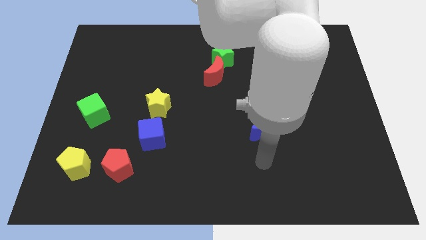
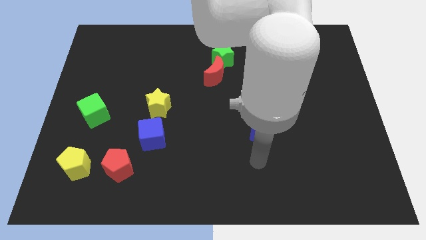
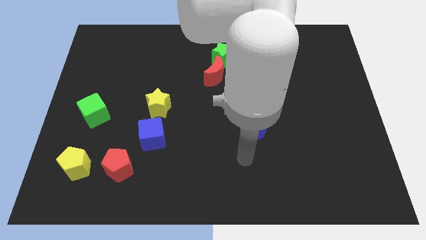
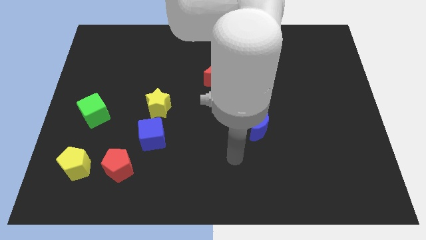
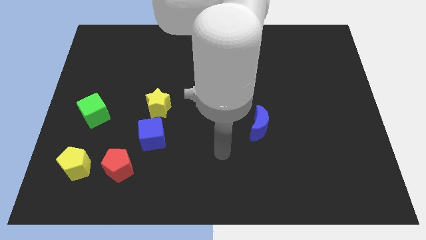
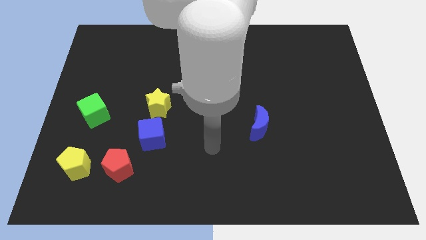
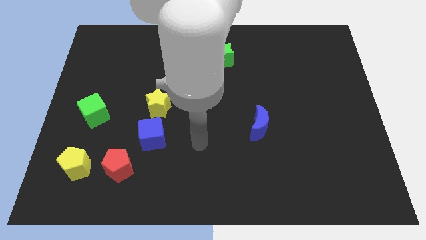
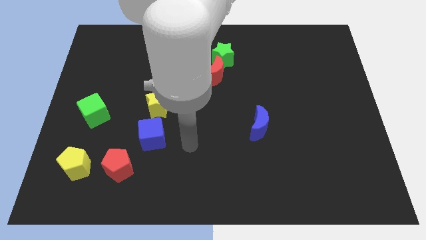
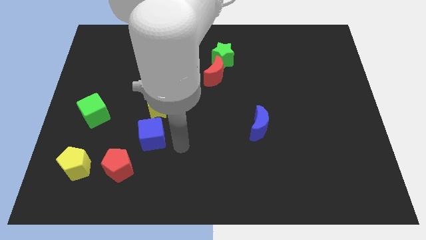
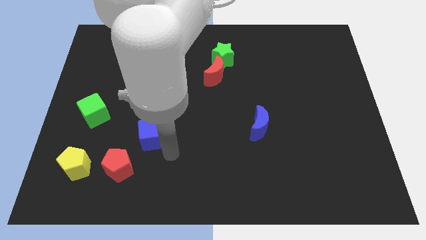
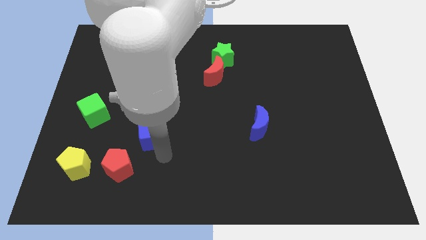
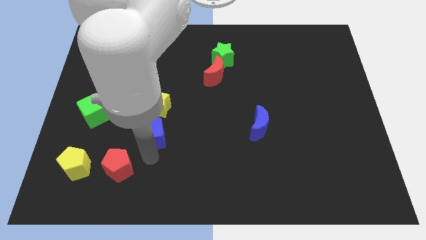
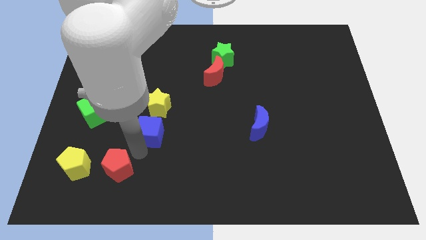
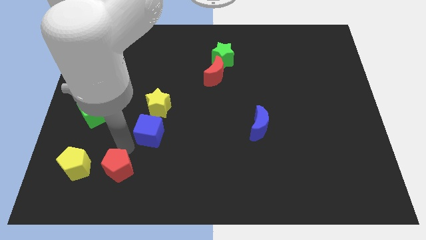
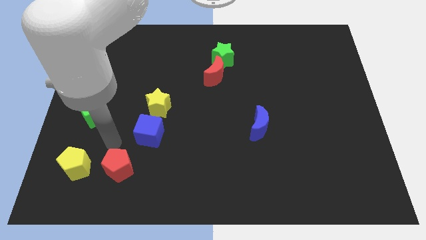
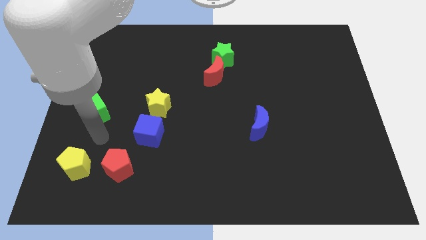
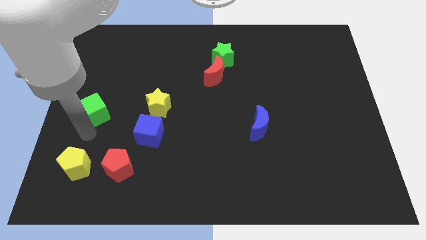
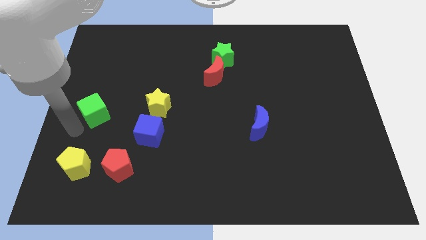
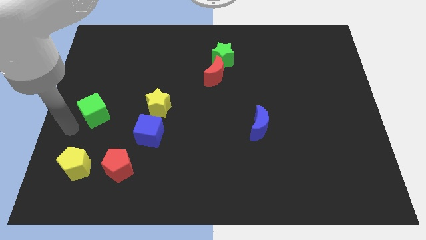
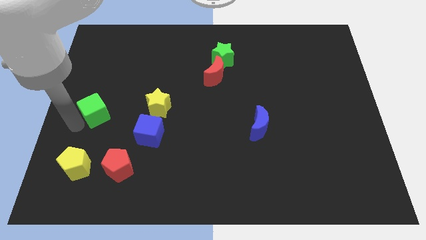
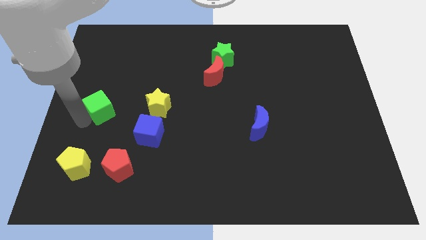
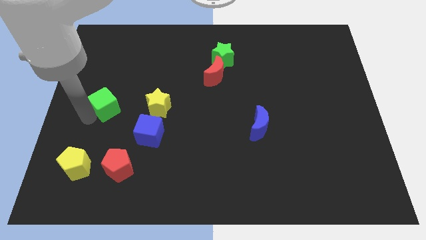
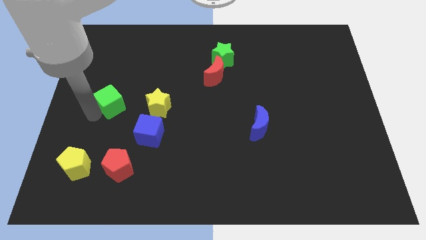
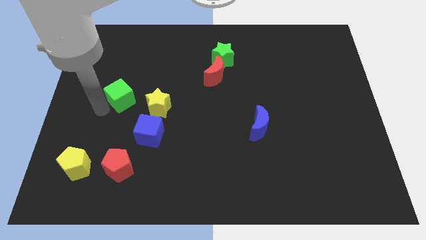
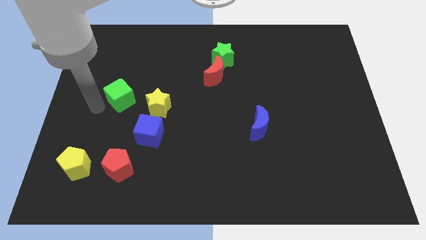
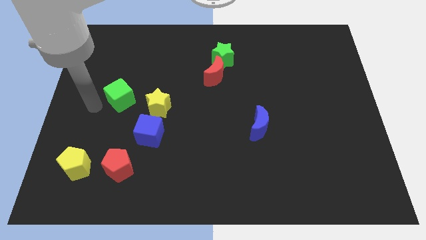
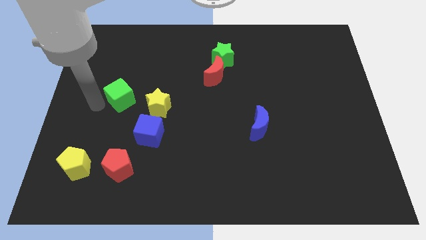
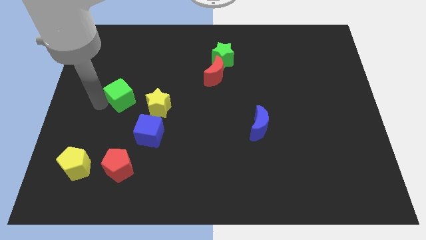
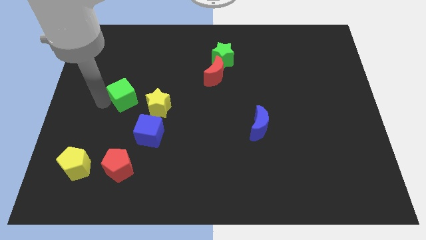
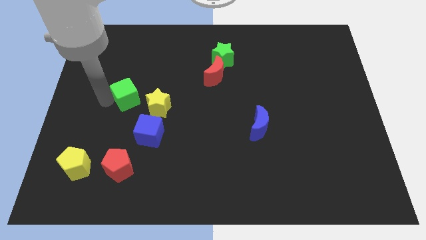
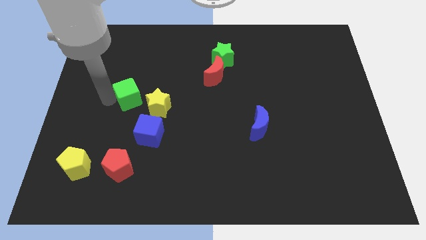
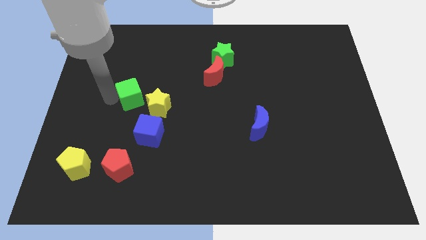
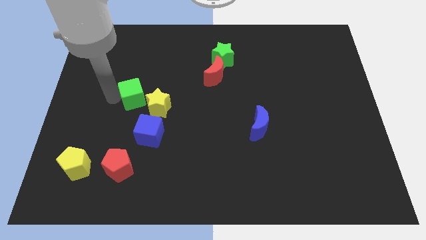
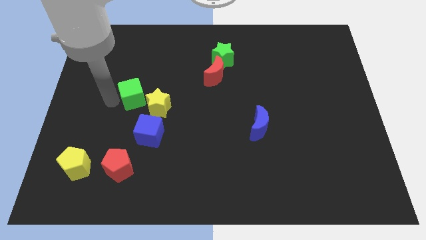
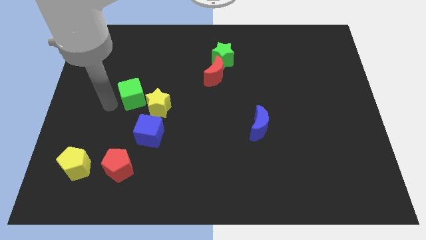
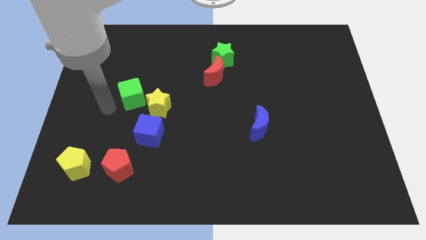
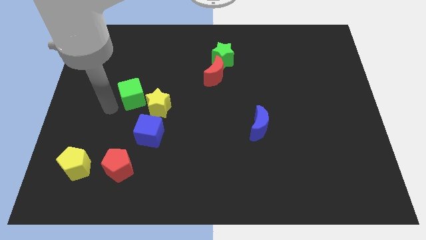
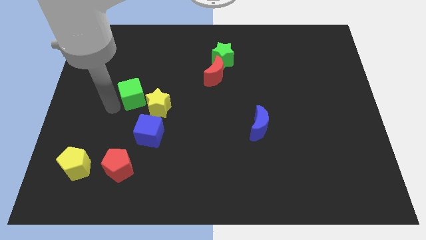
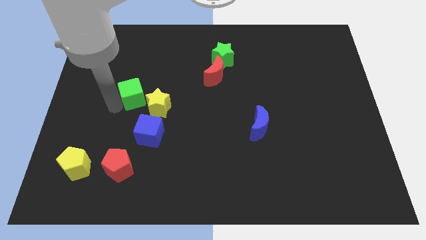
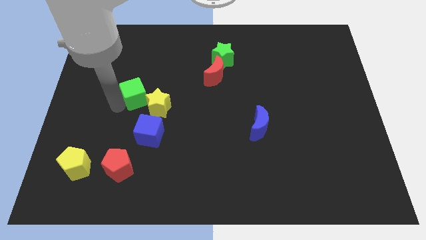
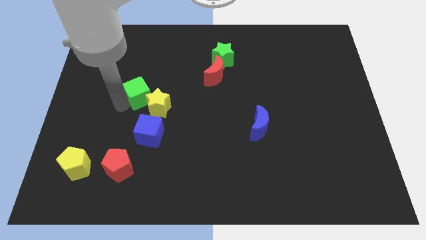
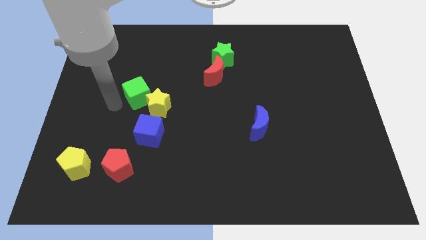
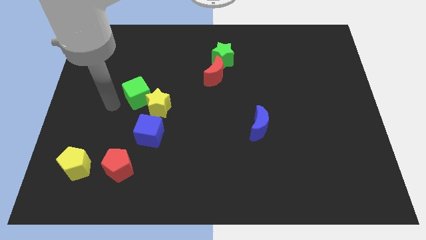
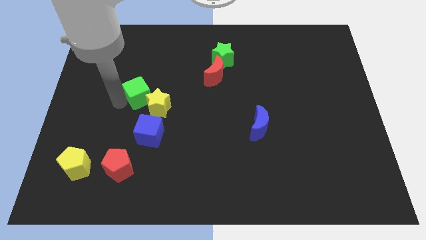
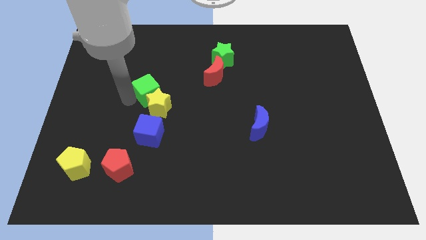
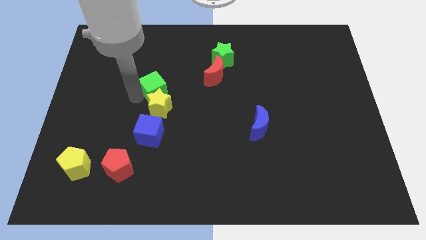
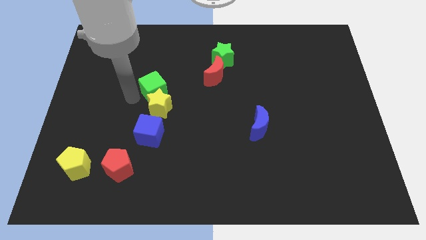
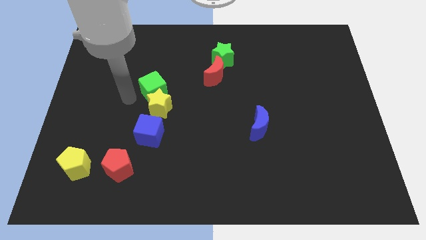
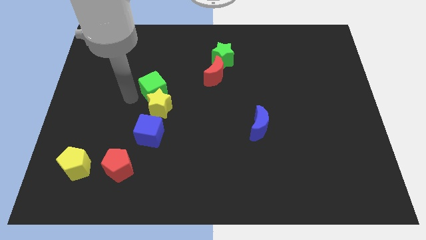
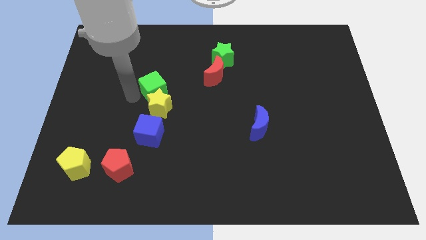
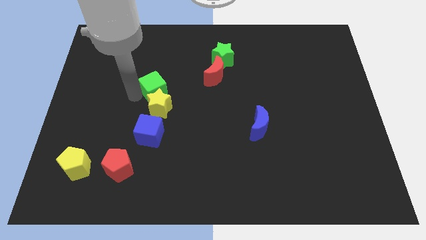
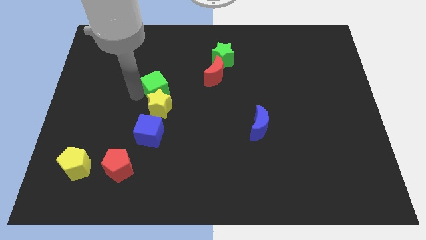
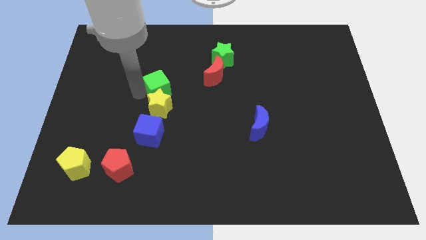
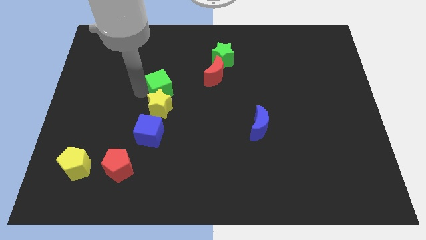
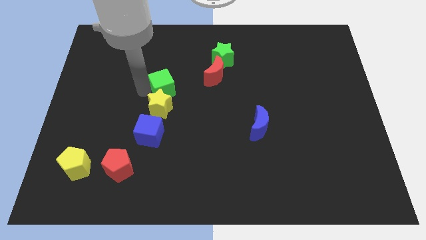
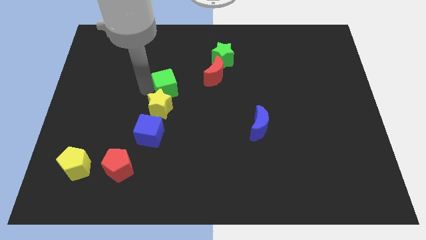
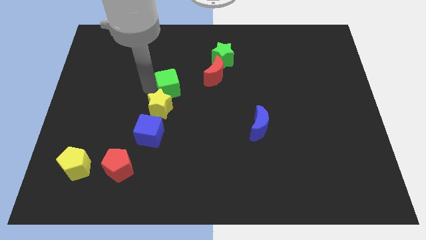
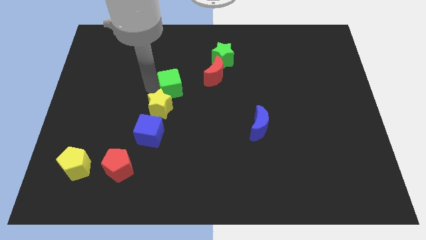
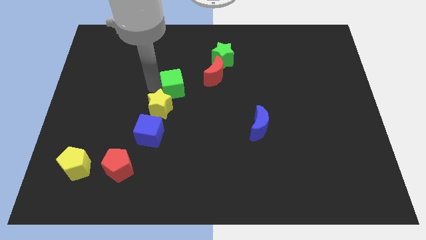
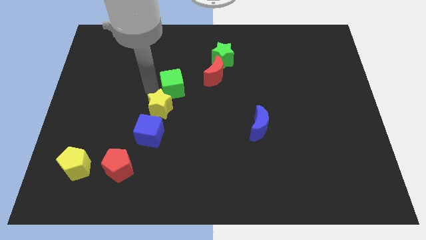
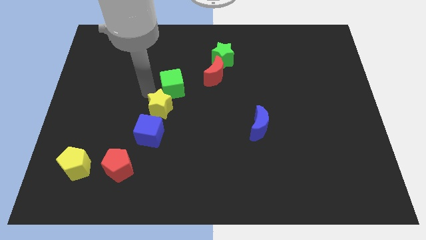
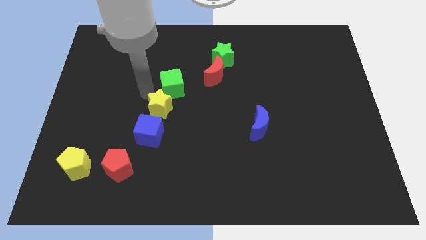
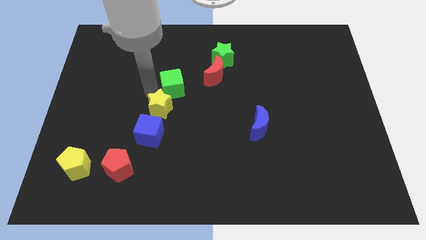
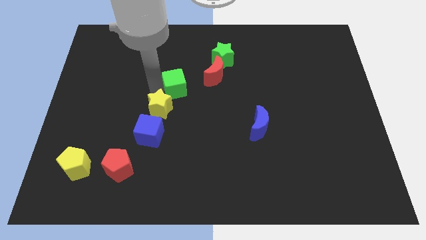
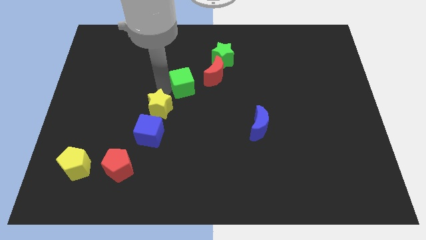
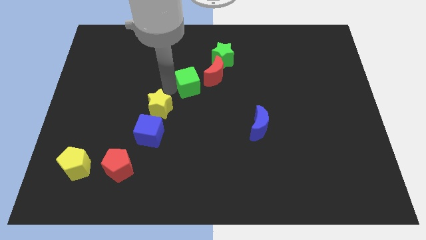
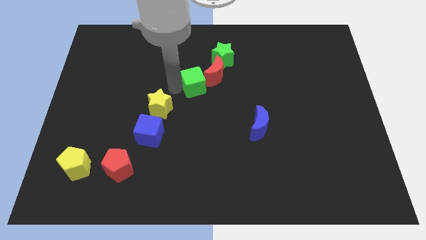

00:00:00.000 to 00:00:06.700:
slide the green cube close to the red moon

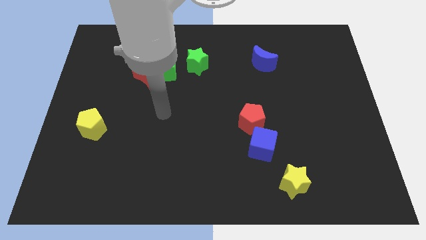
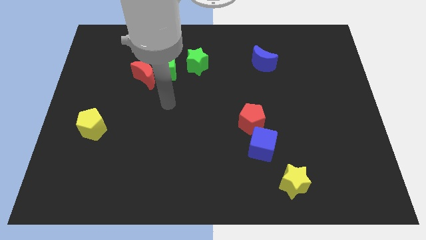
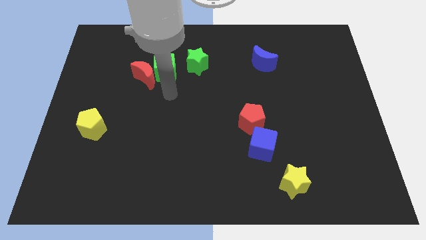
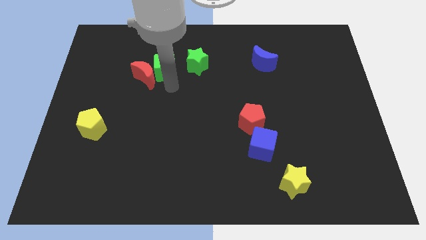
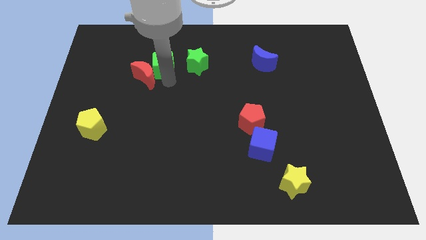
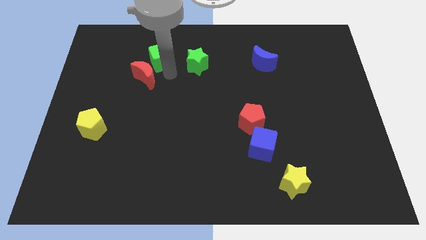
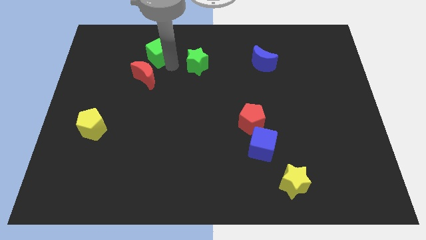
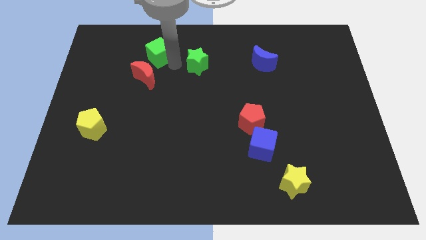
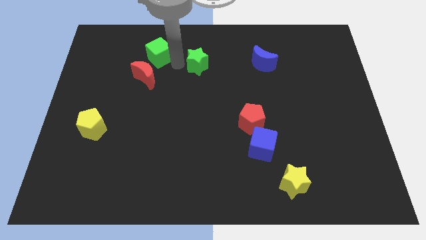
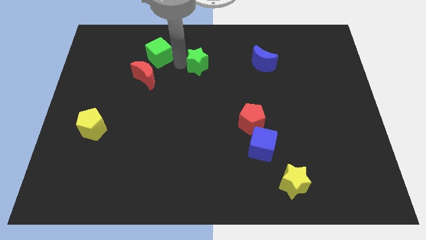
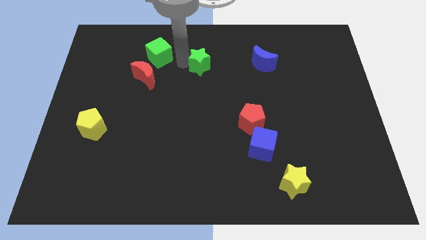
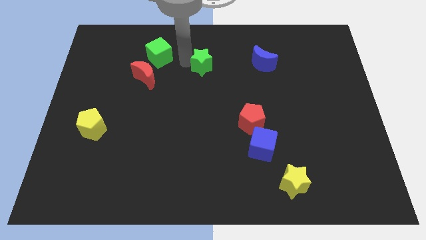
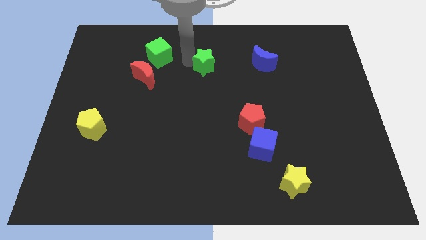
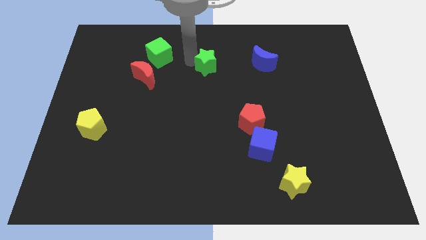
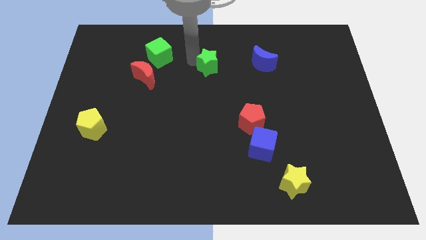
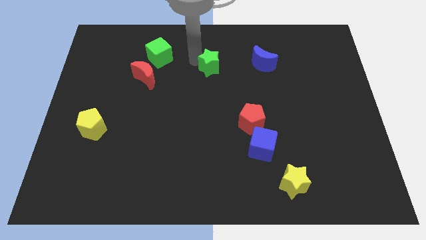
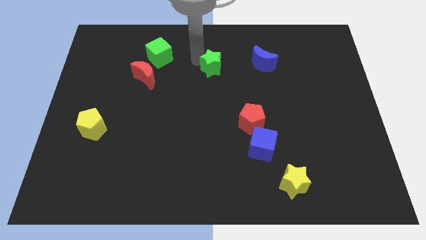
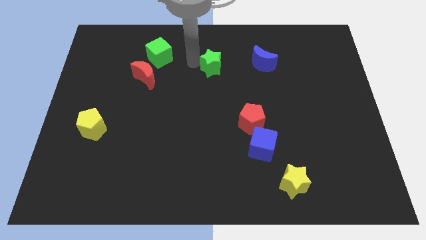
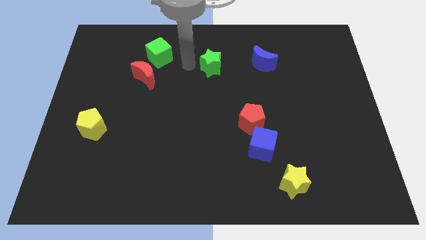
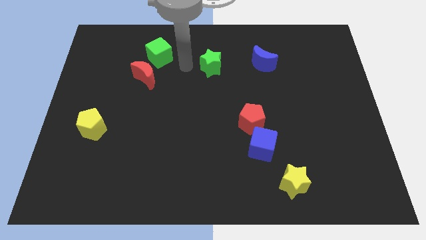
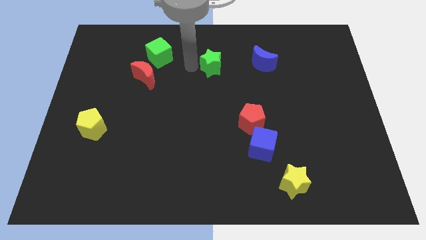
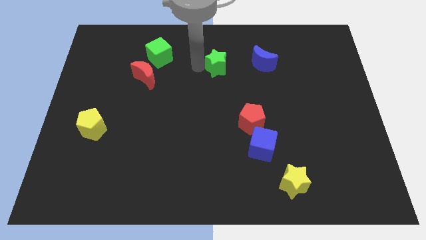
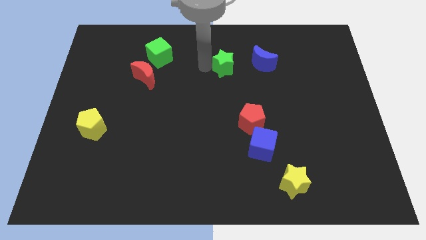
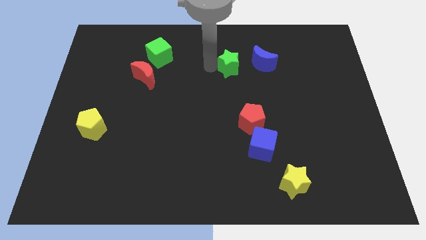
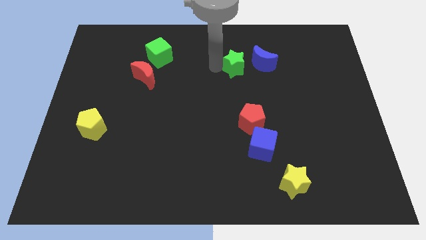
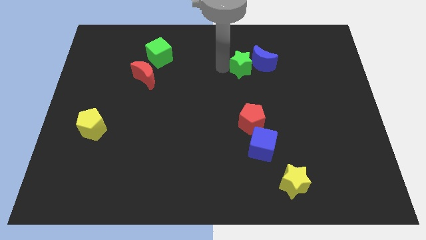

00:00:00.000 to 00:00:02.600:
put the green star close to the blue moon
